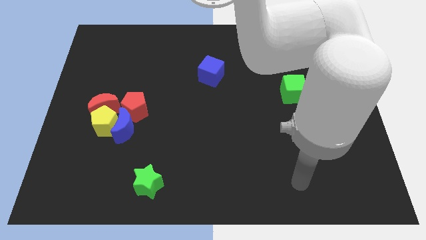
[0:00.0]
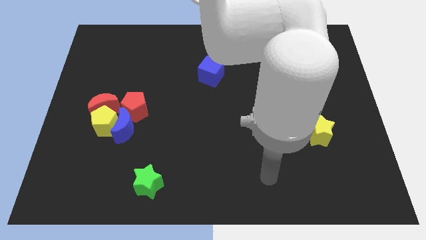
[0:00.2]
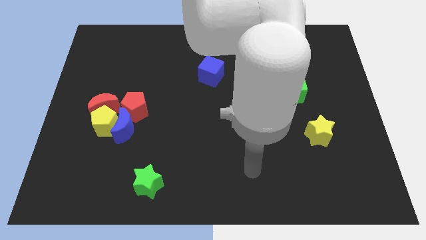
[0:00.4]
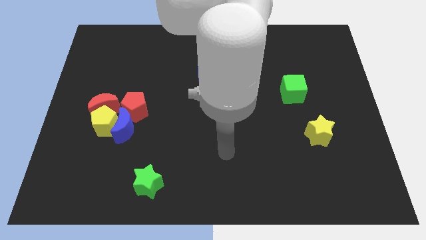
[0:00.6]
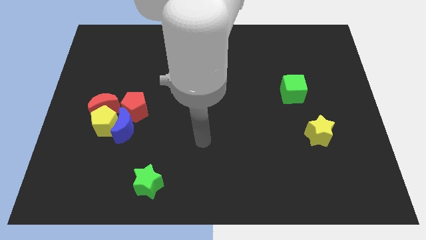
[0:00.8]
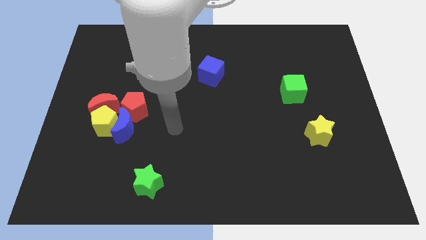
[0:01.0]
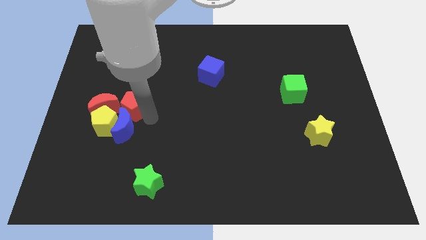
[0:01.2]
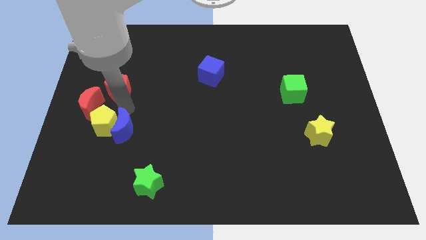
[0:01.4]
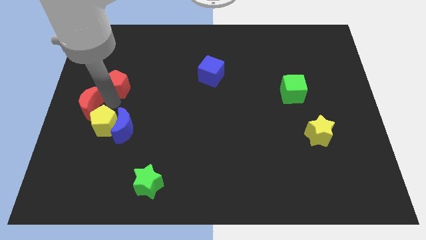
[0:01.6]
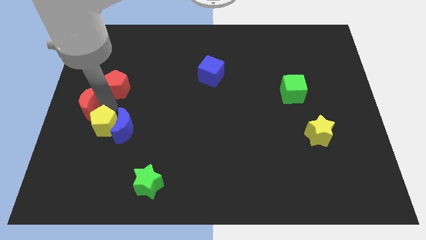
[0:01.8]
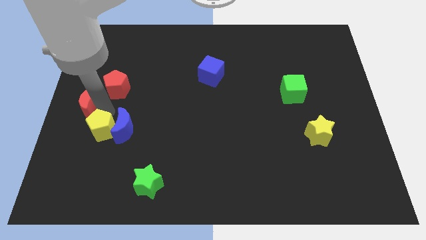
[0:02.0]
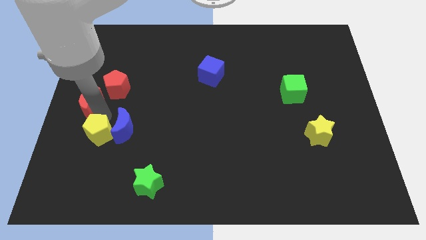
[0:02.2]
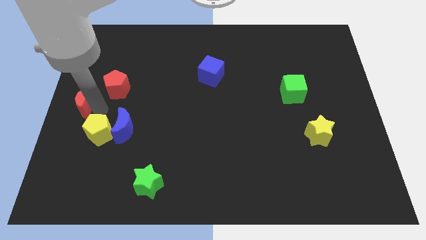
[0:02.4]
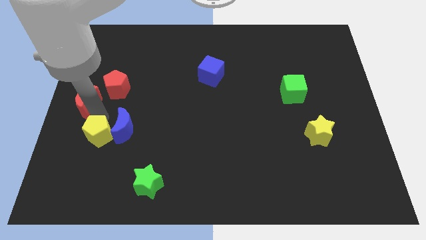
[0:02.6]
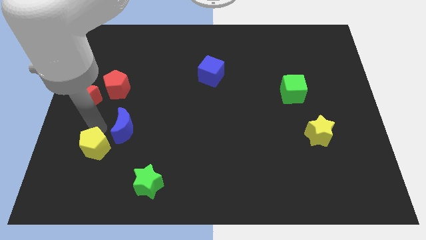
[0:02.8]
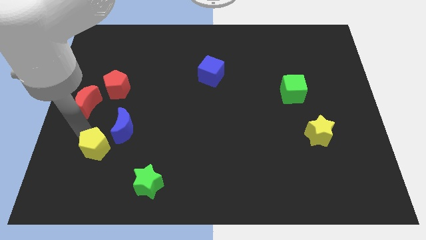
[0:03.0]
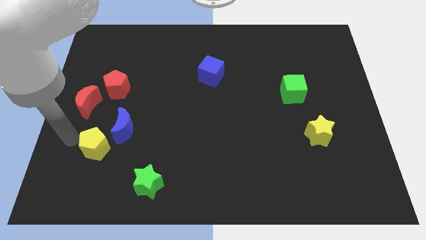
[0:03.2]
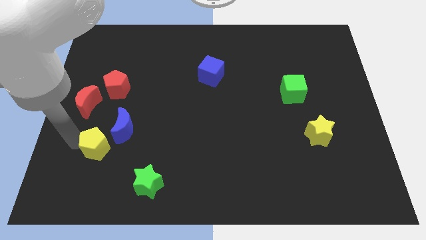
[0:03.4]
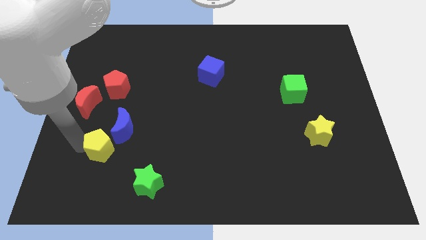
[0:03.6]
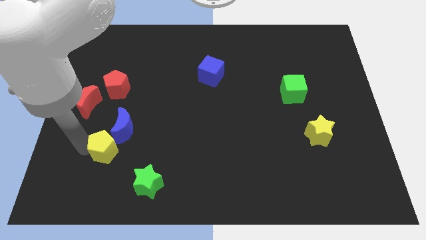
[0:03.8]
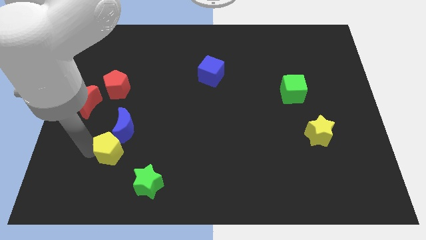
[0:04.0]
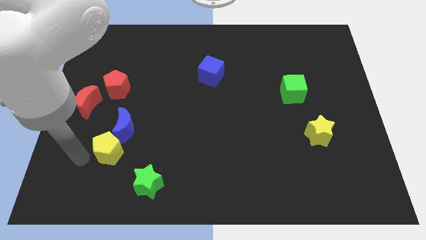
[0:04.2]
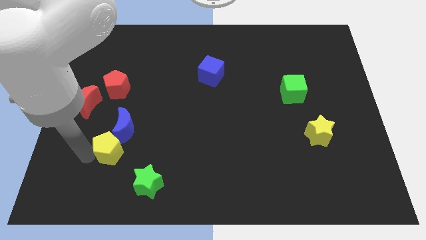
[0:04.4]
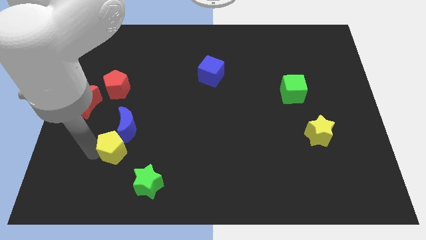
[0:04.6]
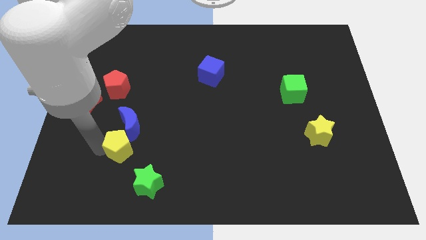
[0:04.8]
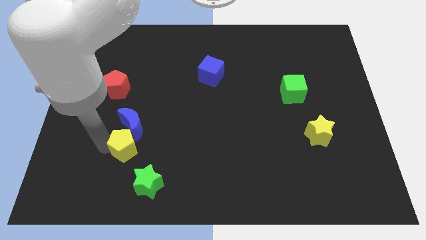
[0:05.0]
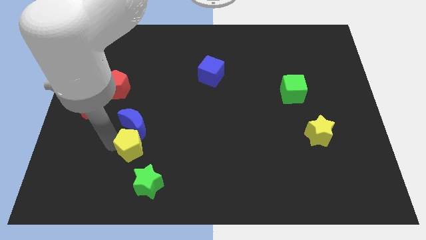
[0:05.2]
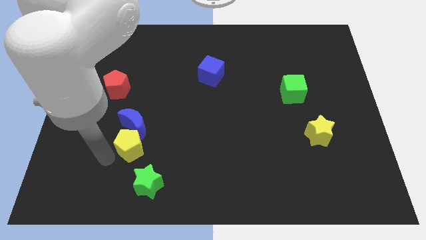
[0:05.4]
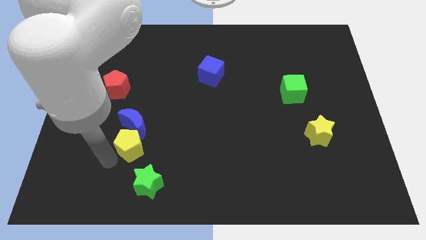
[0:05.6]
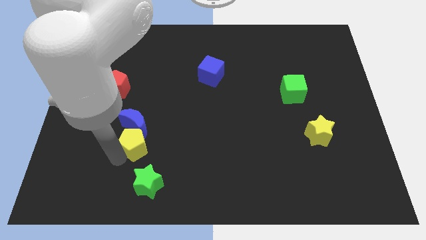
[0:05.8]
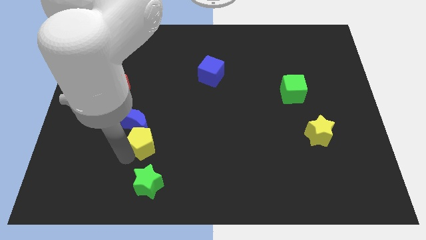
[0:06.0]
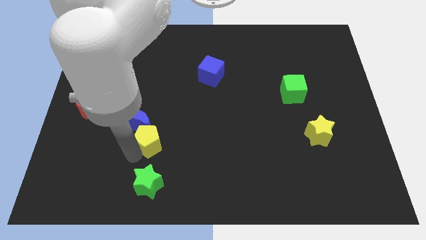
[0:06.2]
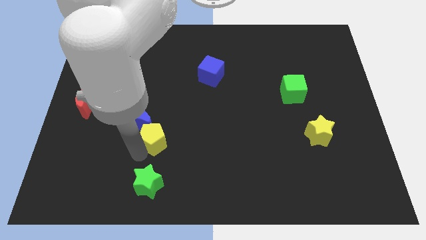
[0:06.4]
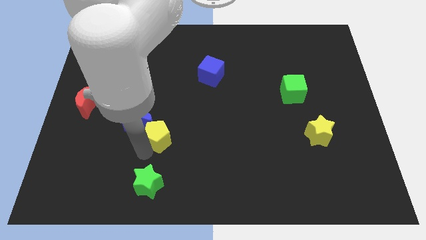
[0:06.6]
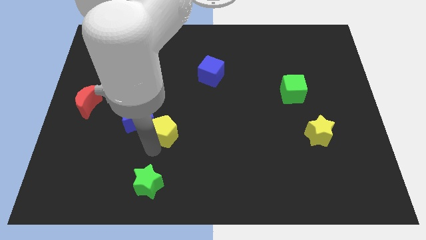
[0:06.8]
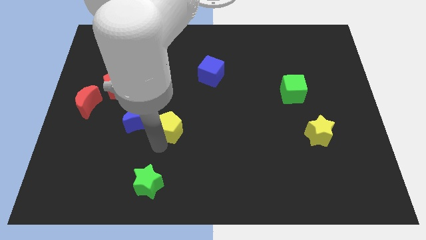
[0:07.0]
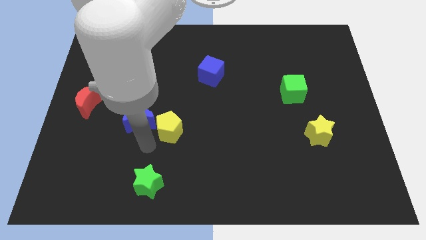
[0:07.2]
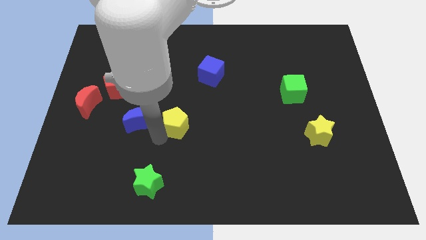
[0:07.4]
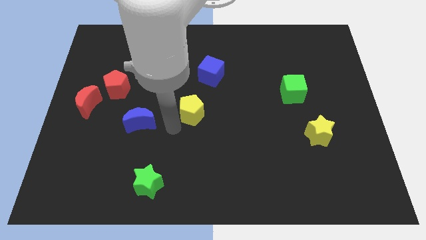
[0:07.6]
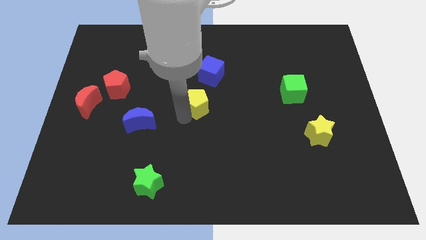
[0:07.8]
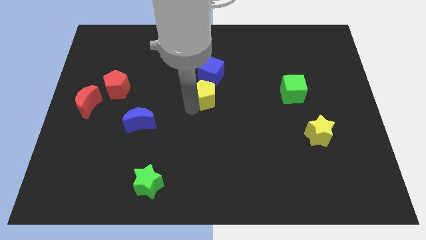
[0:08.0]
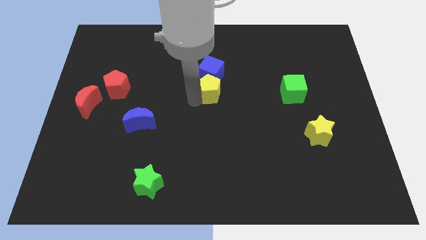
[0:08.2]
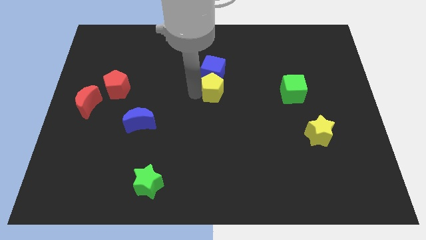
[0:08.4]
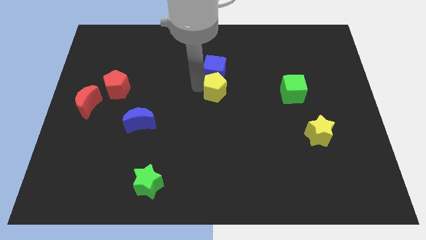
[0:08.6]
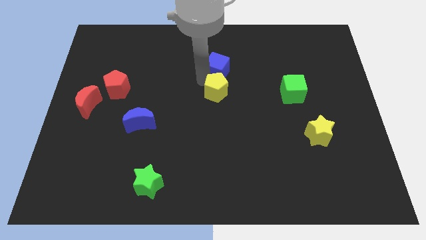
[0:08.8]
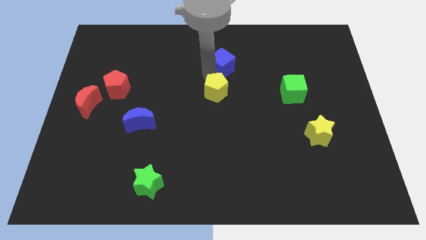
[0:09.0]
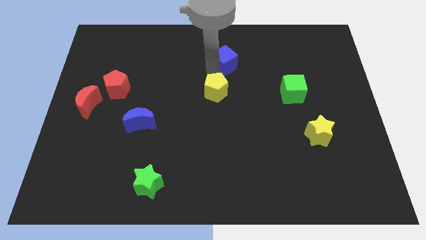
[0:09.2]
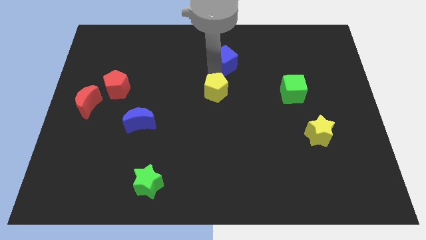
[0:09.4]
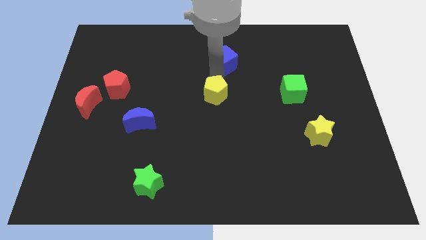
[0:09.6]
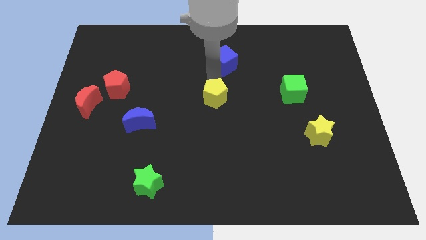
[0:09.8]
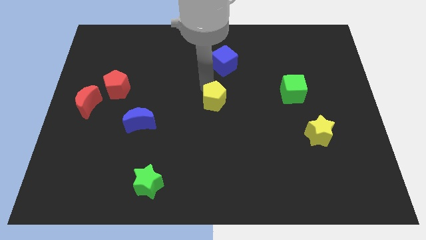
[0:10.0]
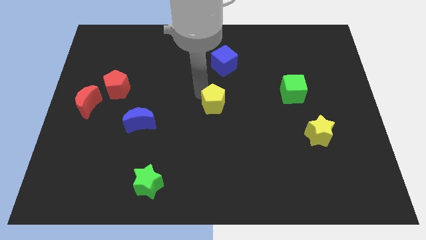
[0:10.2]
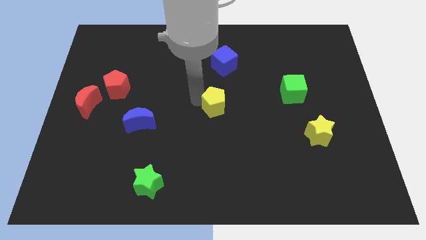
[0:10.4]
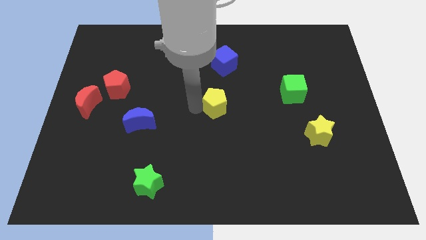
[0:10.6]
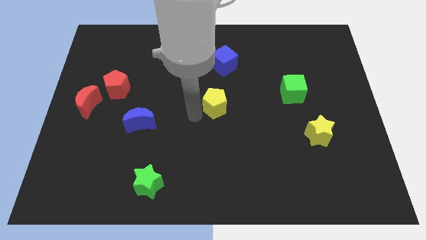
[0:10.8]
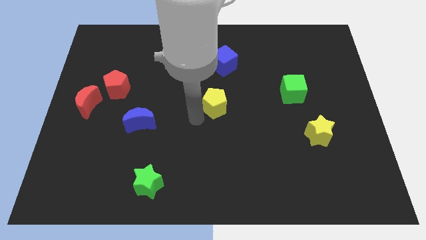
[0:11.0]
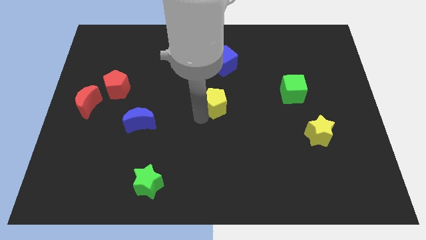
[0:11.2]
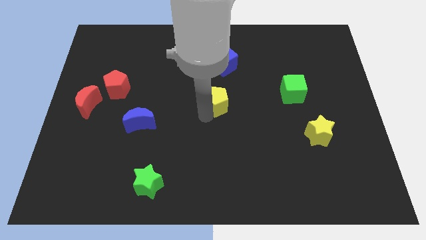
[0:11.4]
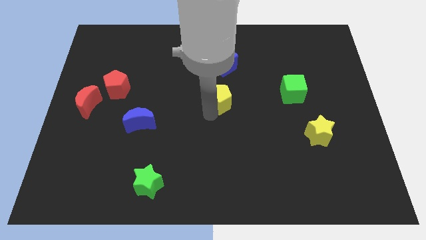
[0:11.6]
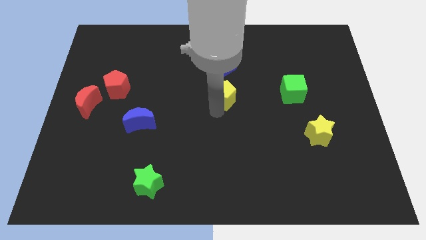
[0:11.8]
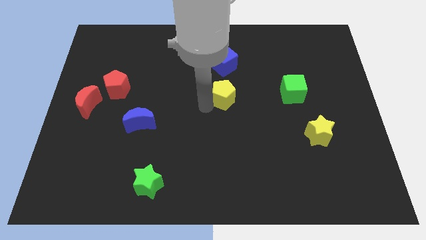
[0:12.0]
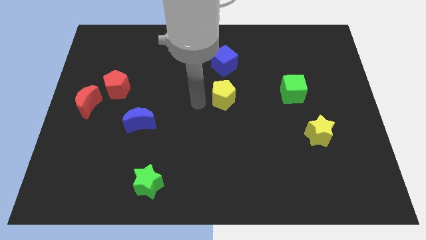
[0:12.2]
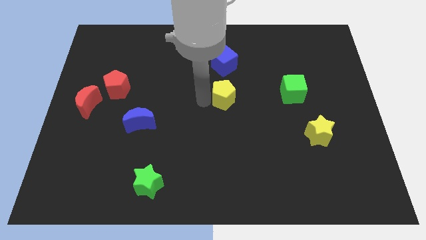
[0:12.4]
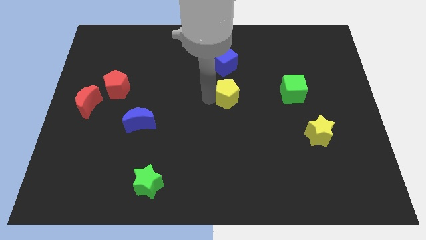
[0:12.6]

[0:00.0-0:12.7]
move the yellow pentagon just left of the green cube

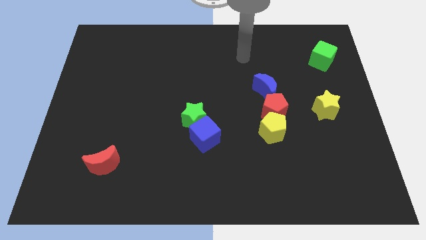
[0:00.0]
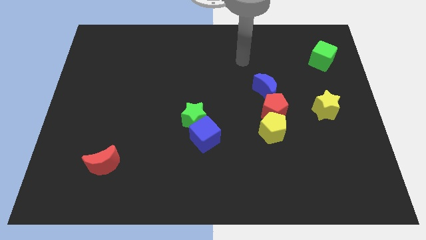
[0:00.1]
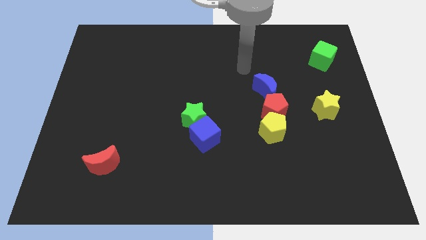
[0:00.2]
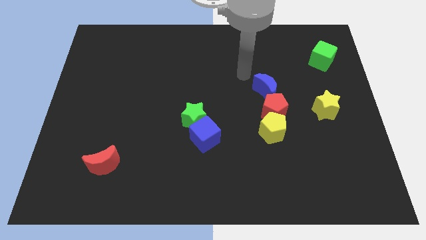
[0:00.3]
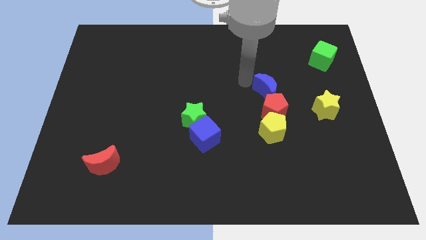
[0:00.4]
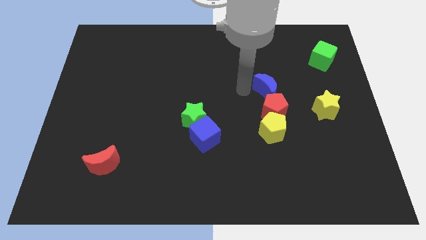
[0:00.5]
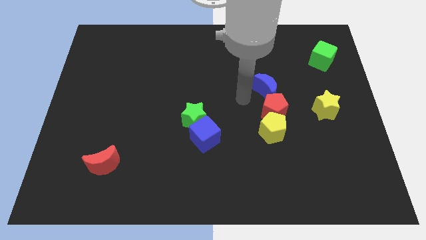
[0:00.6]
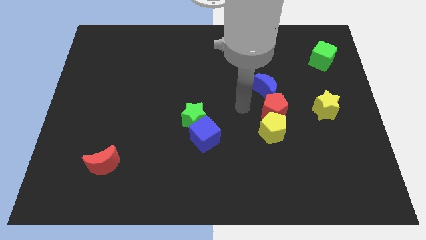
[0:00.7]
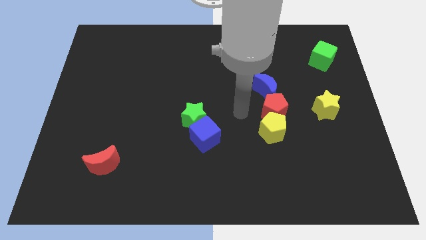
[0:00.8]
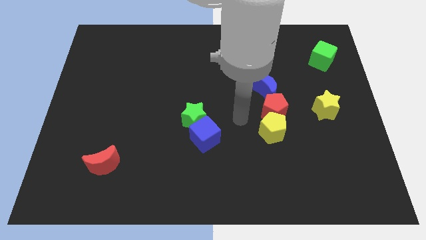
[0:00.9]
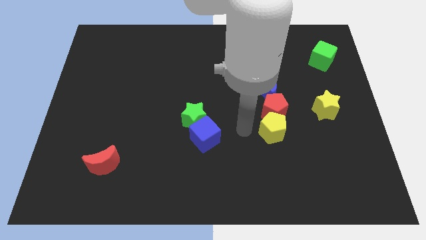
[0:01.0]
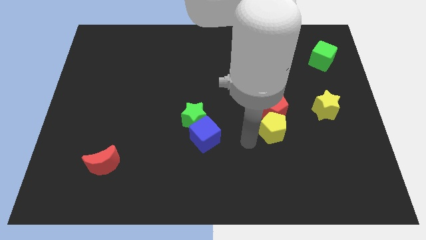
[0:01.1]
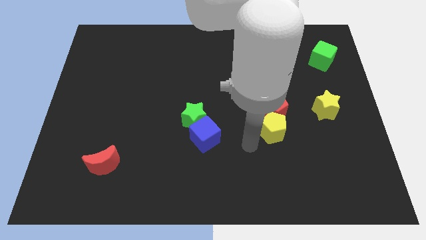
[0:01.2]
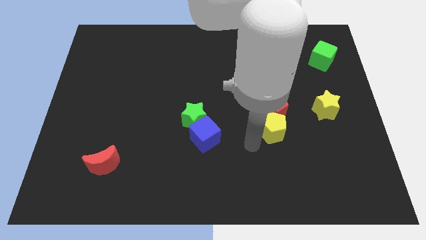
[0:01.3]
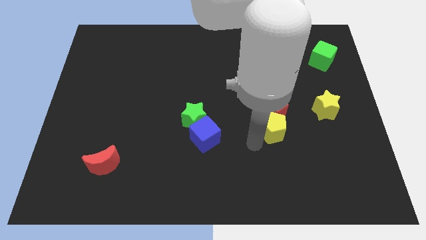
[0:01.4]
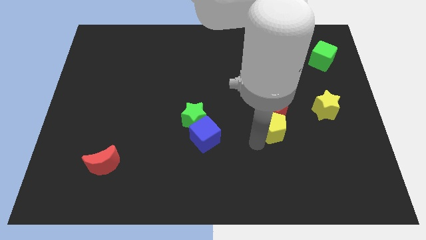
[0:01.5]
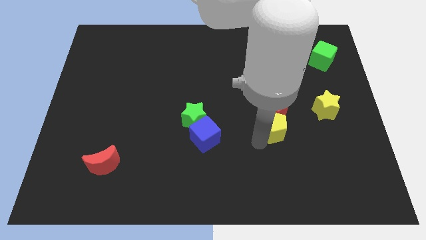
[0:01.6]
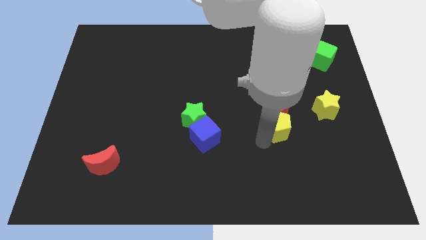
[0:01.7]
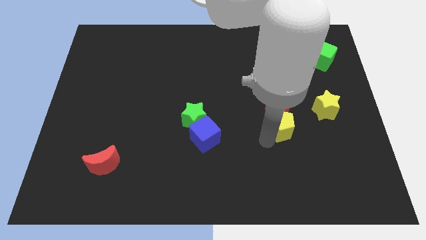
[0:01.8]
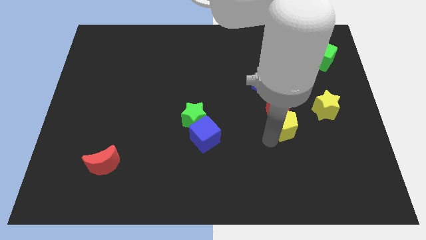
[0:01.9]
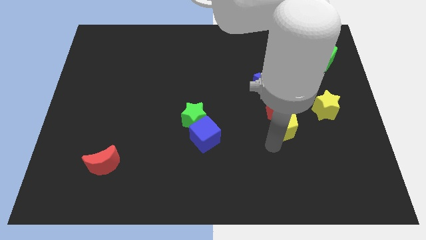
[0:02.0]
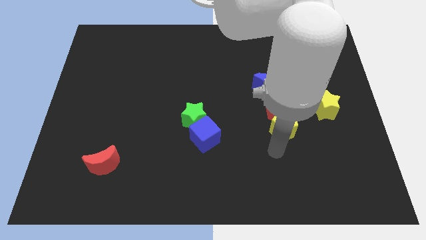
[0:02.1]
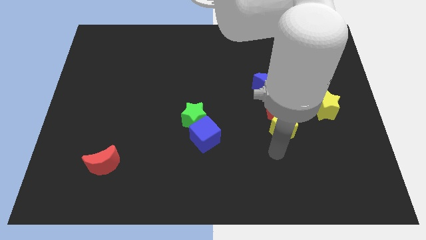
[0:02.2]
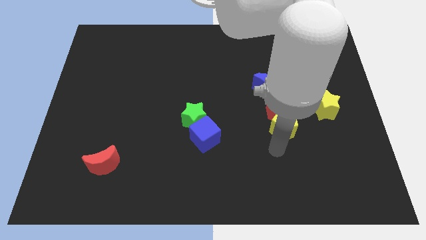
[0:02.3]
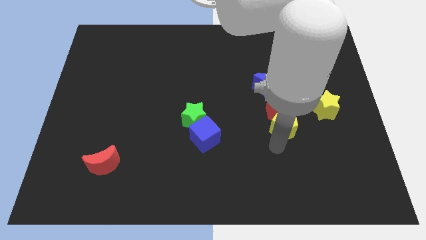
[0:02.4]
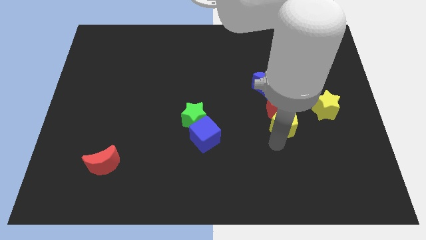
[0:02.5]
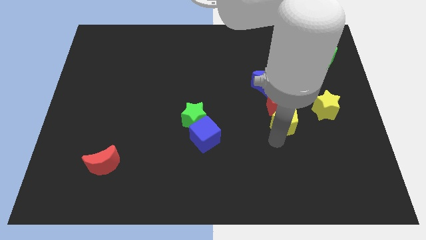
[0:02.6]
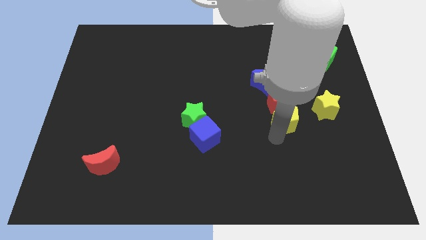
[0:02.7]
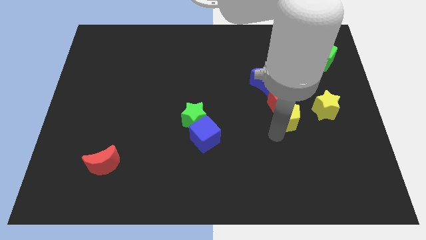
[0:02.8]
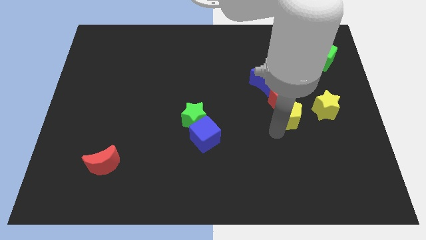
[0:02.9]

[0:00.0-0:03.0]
put the yellow pentagon to the bottom right of the blue moon
